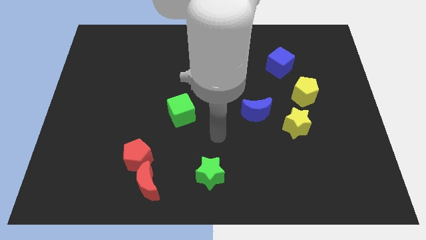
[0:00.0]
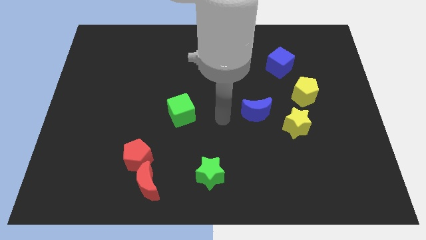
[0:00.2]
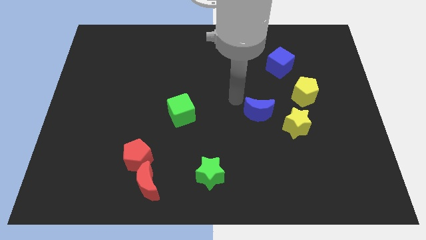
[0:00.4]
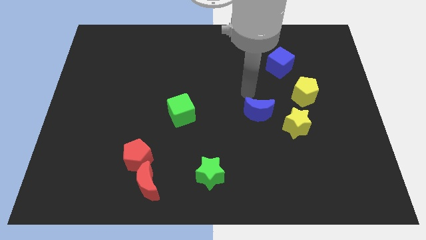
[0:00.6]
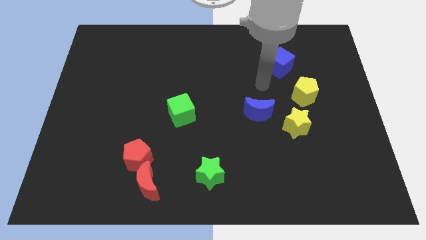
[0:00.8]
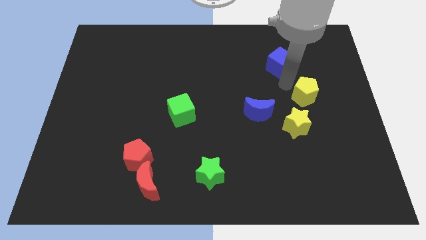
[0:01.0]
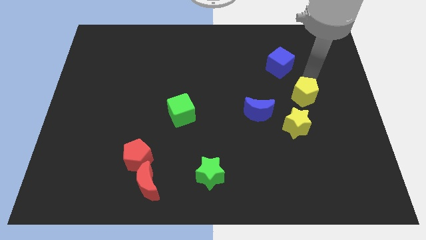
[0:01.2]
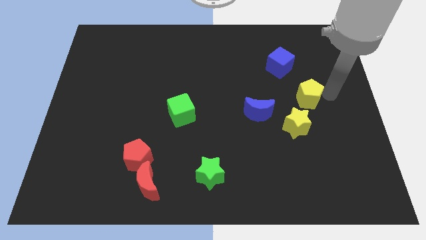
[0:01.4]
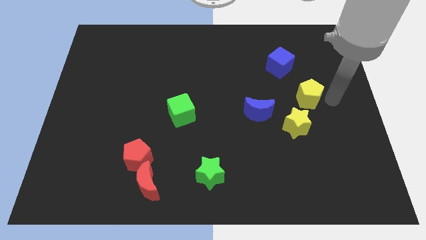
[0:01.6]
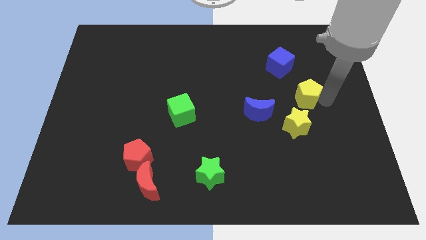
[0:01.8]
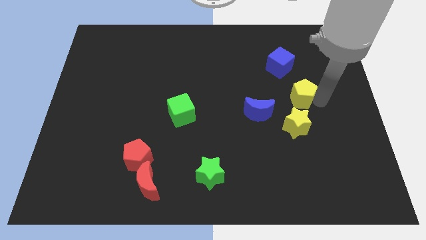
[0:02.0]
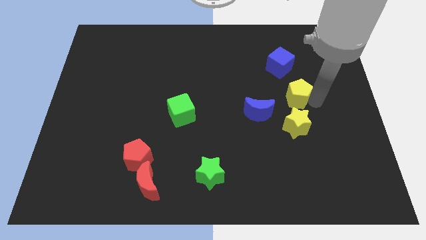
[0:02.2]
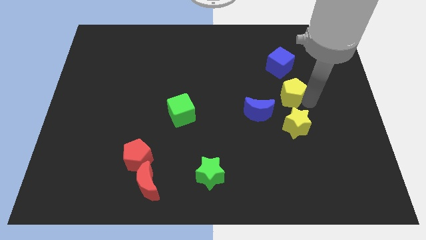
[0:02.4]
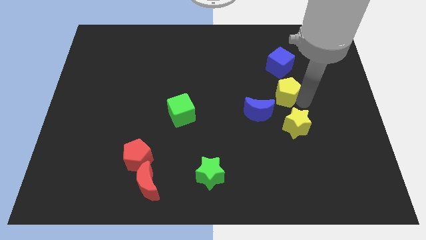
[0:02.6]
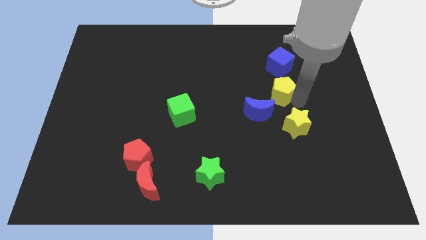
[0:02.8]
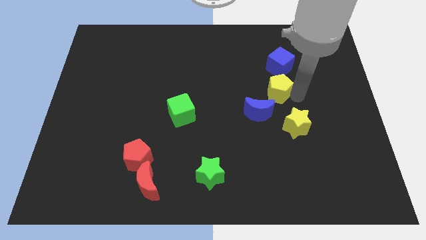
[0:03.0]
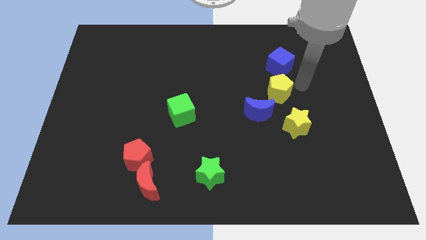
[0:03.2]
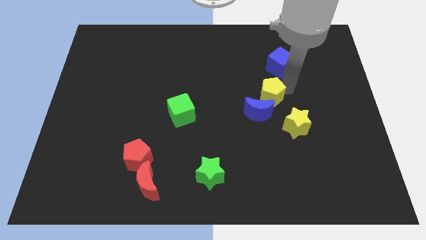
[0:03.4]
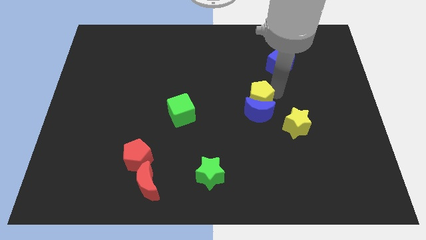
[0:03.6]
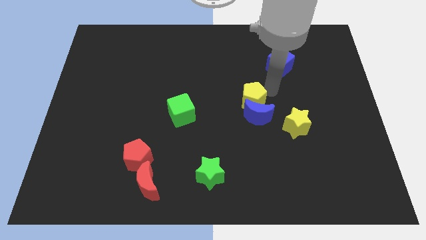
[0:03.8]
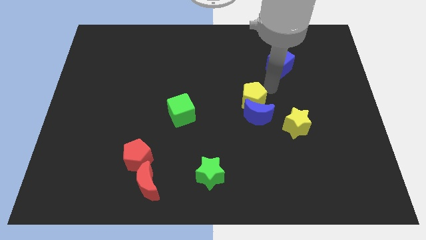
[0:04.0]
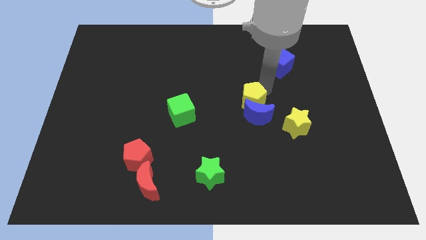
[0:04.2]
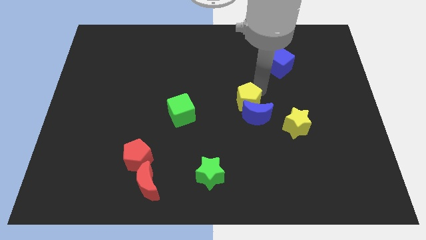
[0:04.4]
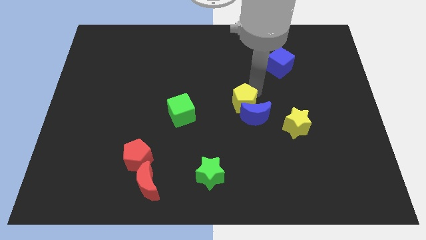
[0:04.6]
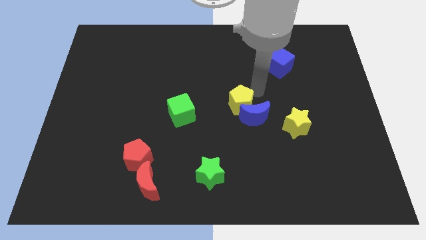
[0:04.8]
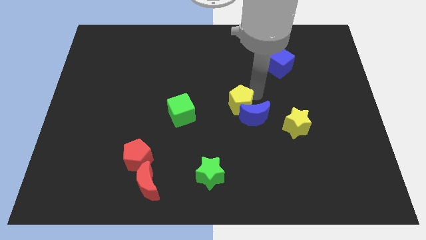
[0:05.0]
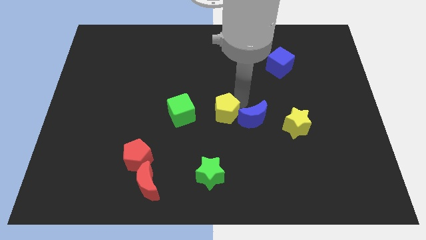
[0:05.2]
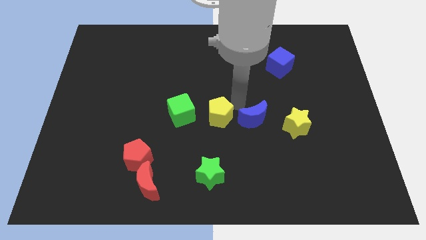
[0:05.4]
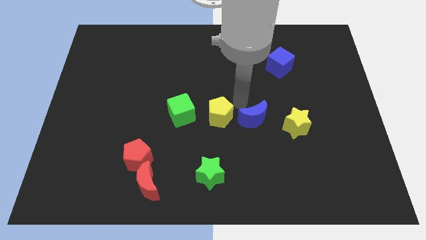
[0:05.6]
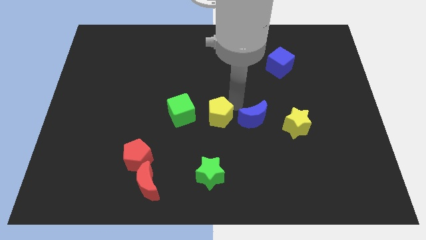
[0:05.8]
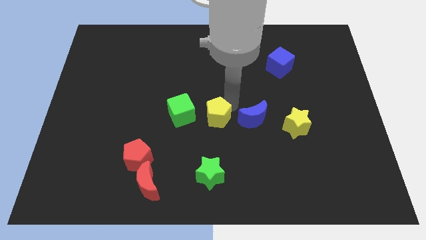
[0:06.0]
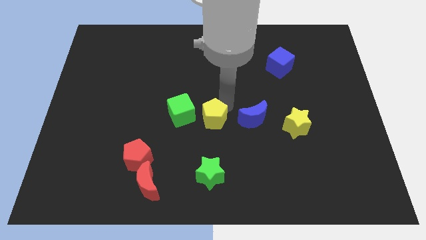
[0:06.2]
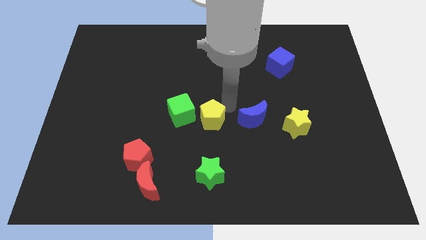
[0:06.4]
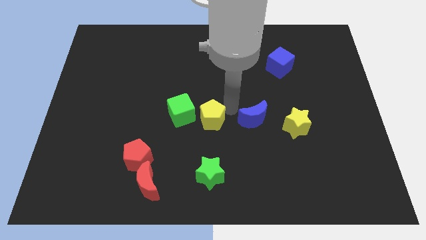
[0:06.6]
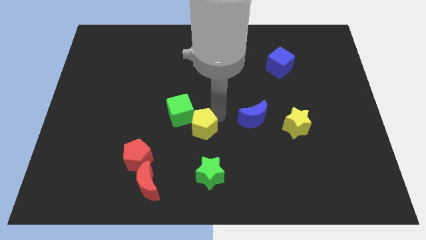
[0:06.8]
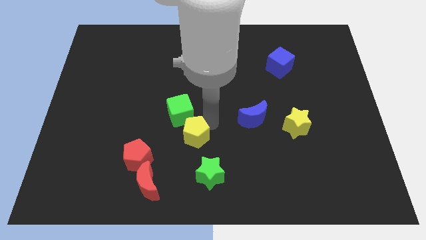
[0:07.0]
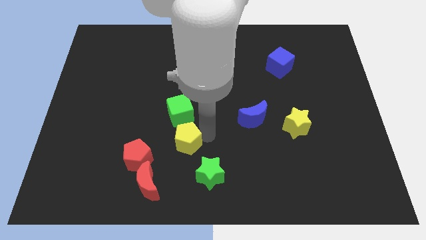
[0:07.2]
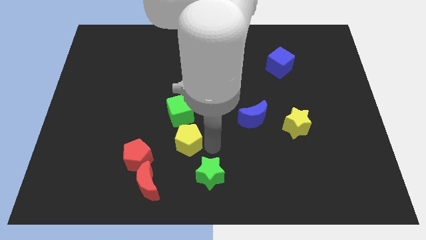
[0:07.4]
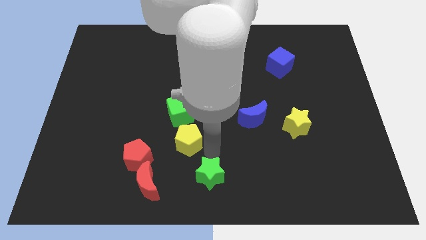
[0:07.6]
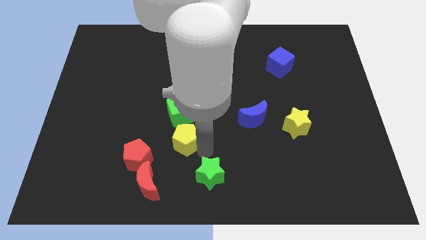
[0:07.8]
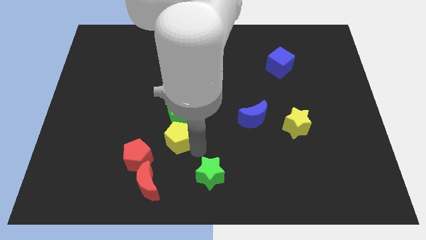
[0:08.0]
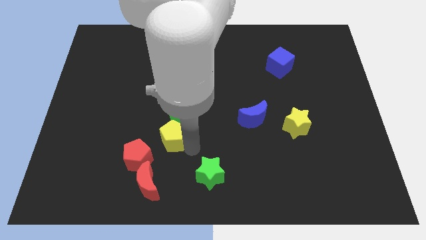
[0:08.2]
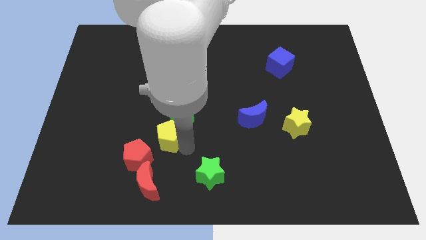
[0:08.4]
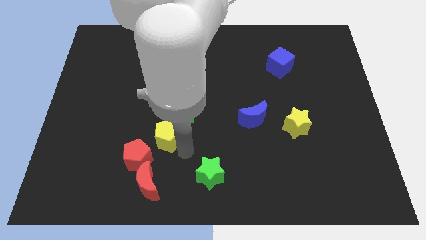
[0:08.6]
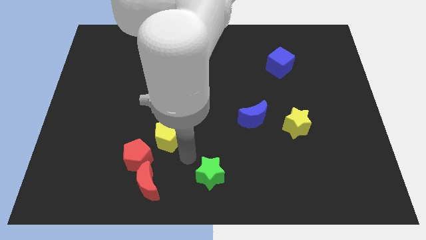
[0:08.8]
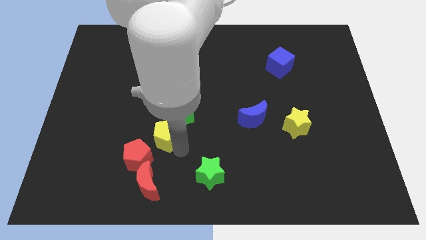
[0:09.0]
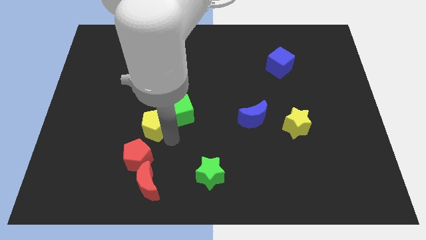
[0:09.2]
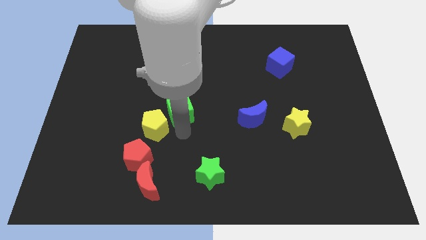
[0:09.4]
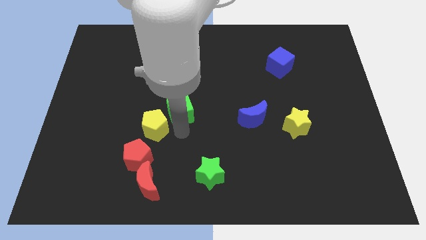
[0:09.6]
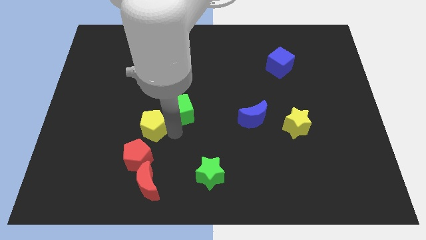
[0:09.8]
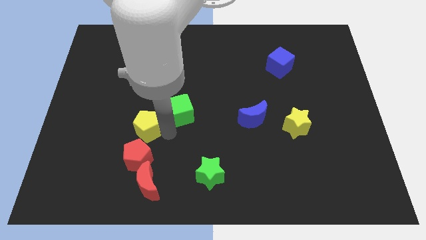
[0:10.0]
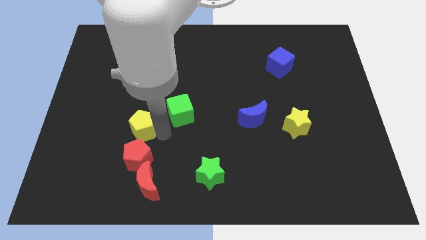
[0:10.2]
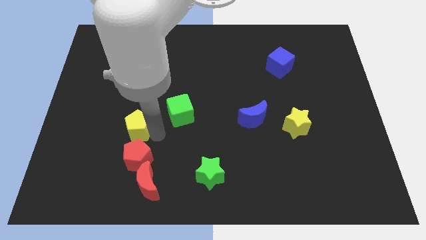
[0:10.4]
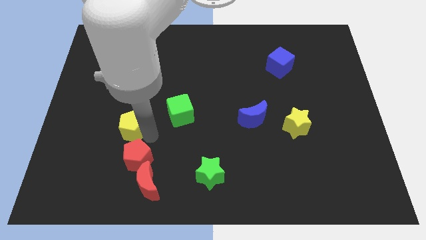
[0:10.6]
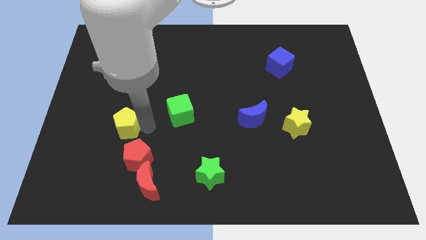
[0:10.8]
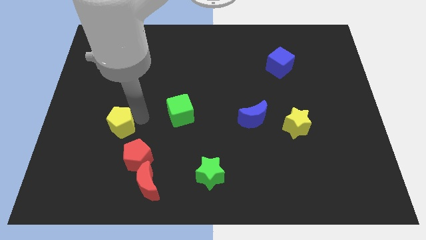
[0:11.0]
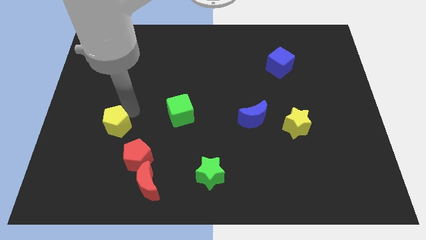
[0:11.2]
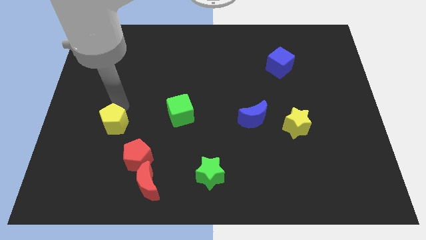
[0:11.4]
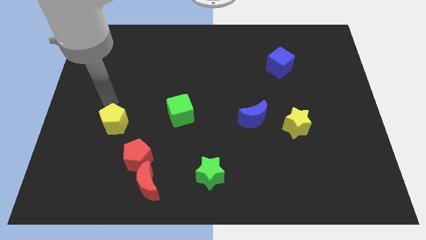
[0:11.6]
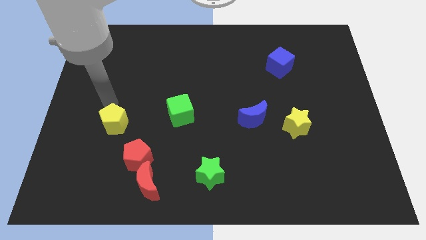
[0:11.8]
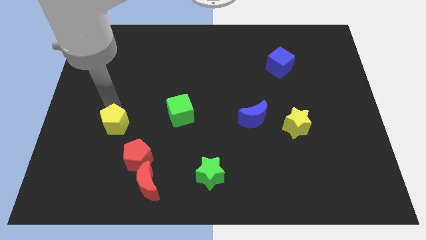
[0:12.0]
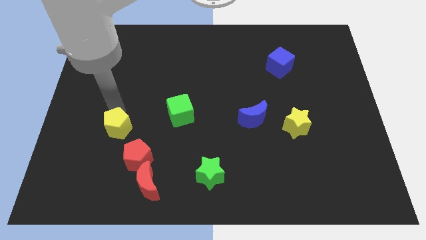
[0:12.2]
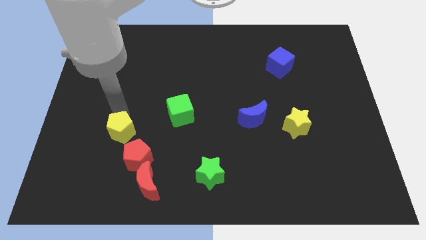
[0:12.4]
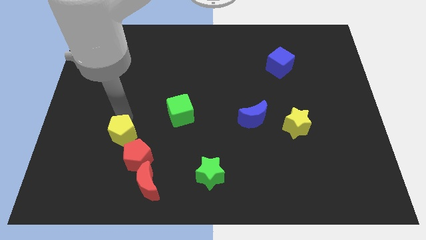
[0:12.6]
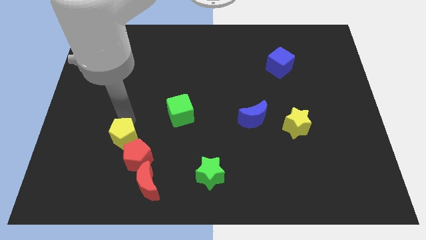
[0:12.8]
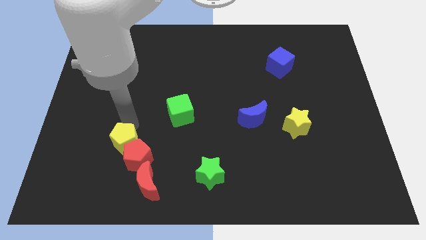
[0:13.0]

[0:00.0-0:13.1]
push the yellow pentagon to the top left of the red moon

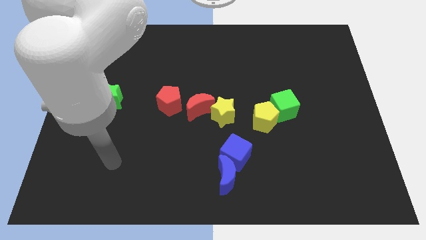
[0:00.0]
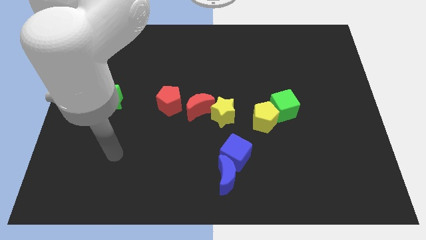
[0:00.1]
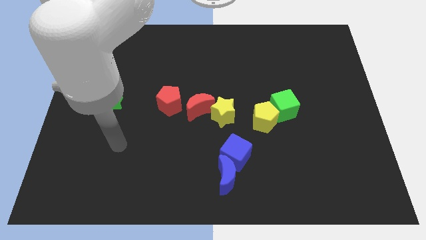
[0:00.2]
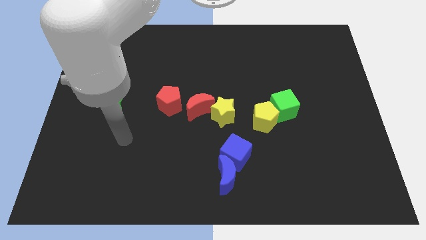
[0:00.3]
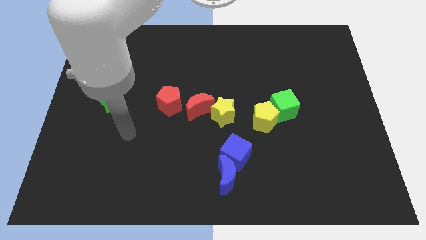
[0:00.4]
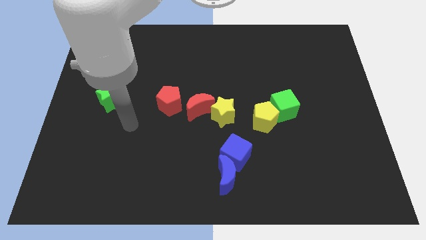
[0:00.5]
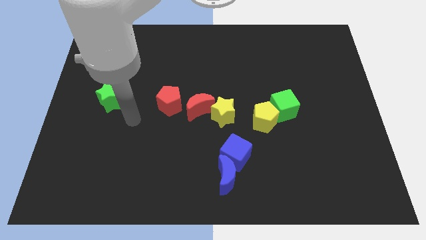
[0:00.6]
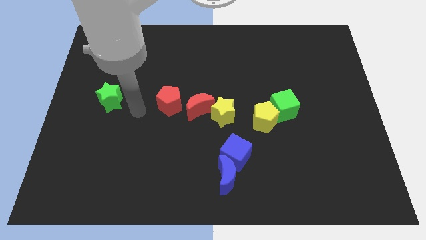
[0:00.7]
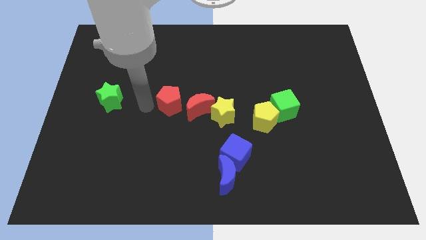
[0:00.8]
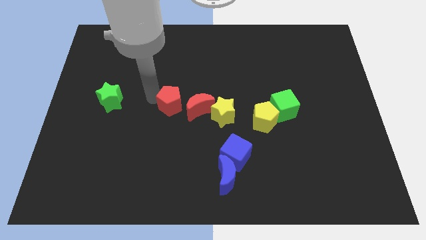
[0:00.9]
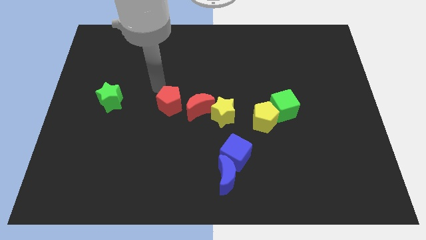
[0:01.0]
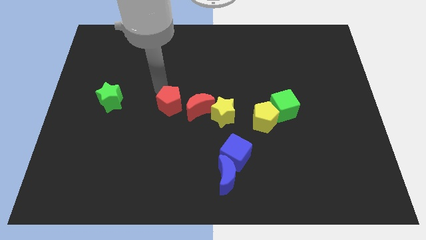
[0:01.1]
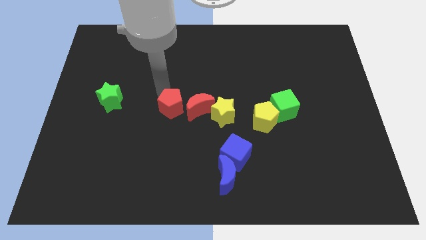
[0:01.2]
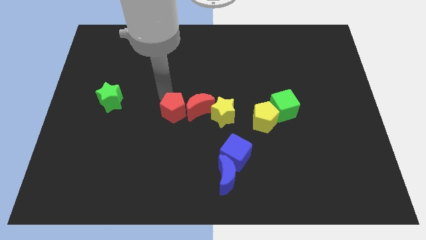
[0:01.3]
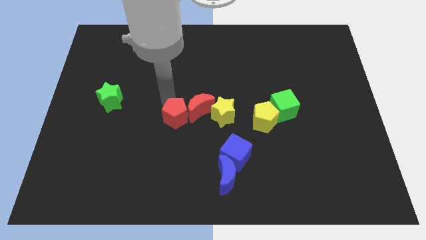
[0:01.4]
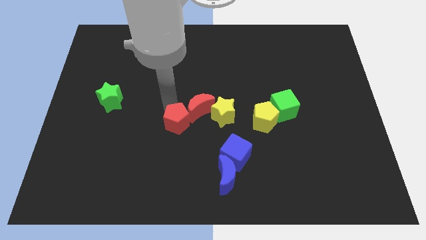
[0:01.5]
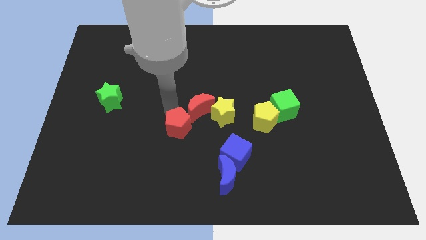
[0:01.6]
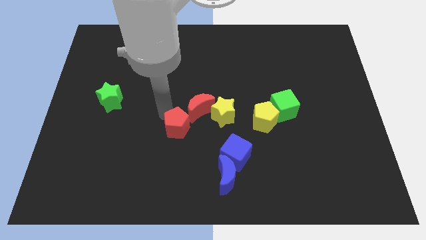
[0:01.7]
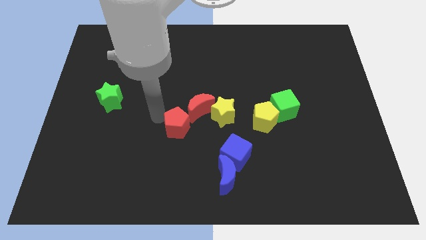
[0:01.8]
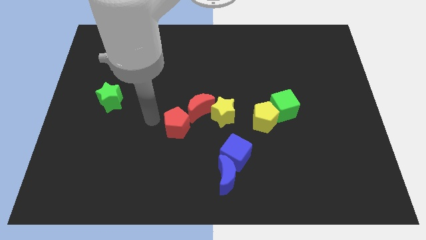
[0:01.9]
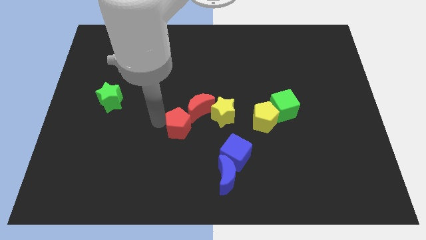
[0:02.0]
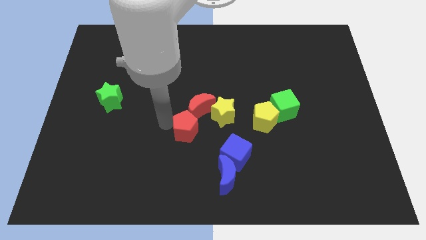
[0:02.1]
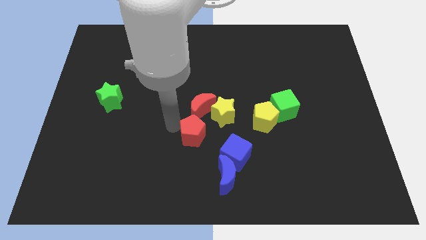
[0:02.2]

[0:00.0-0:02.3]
slide the red pentagon to the top left of the blue cube
